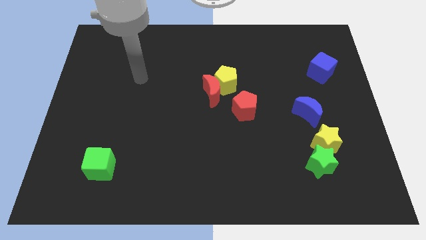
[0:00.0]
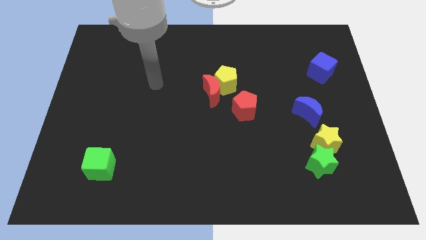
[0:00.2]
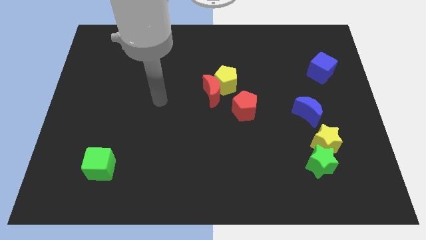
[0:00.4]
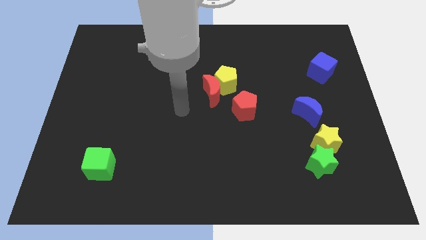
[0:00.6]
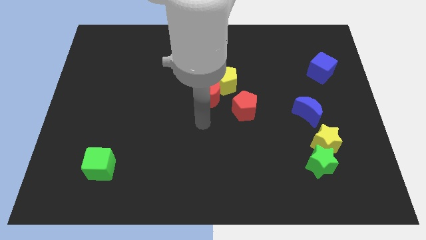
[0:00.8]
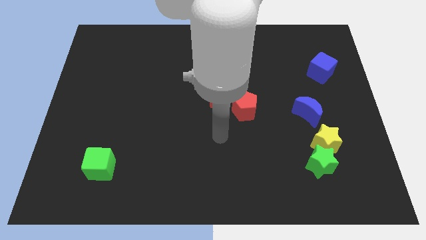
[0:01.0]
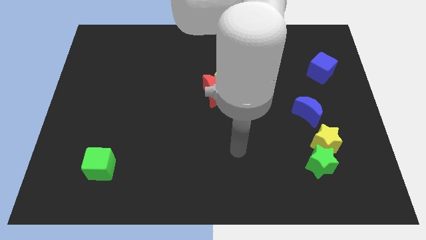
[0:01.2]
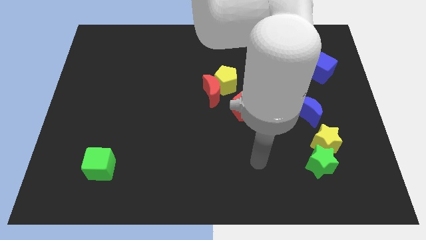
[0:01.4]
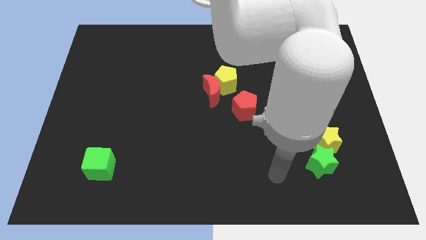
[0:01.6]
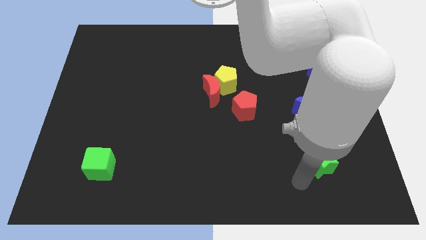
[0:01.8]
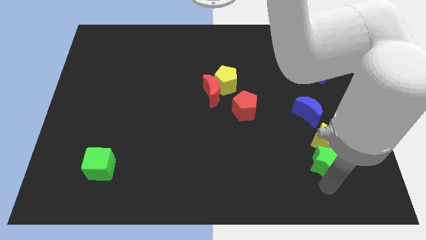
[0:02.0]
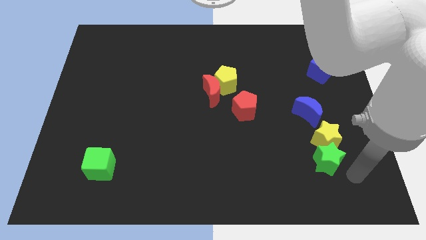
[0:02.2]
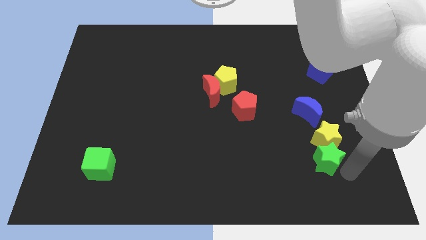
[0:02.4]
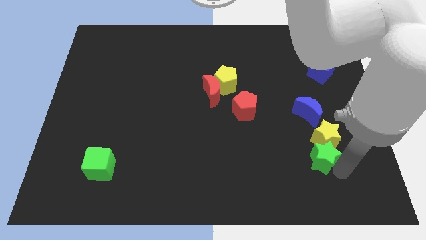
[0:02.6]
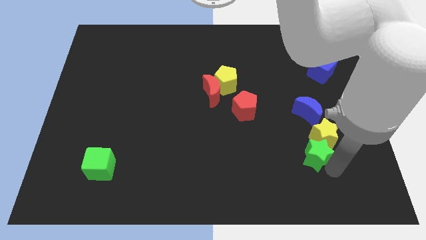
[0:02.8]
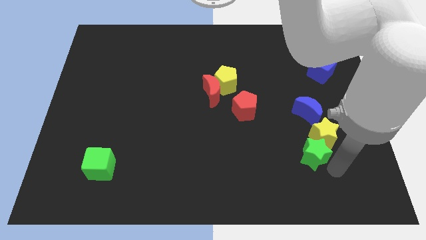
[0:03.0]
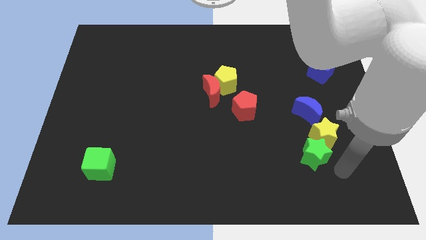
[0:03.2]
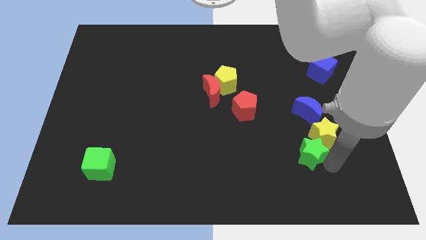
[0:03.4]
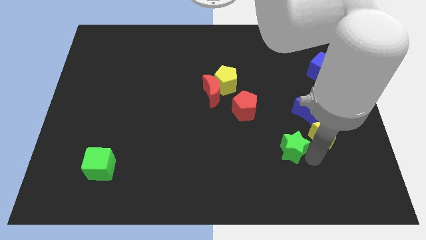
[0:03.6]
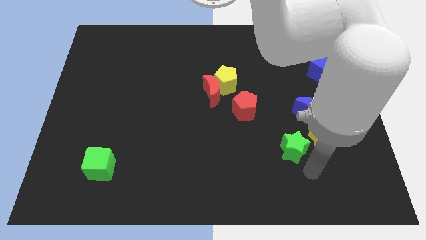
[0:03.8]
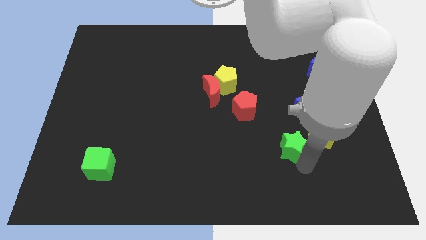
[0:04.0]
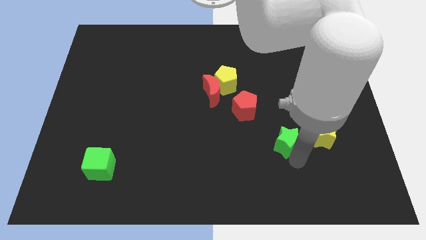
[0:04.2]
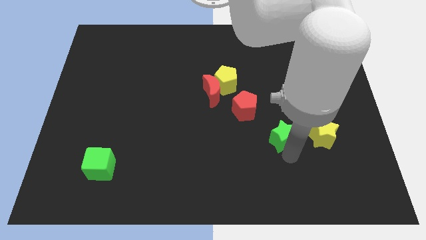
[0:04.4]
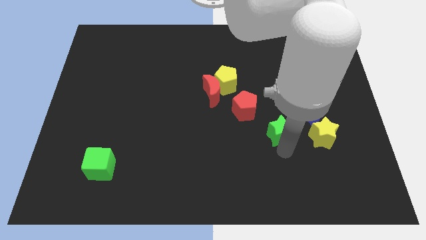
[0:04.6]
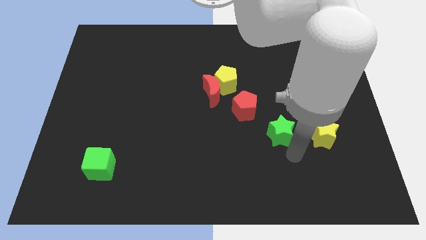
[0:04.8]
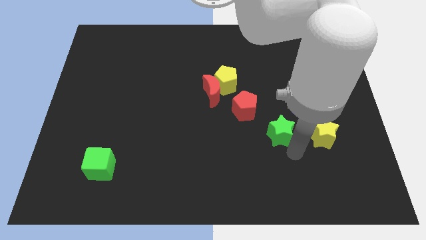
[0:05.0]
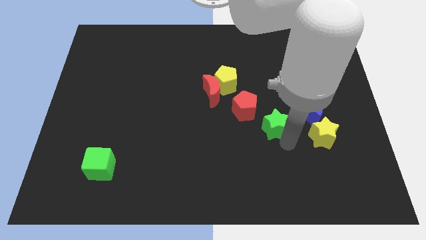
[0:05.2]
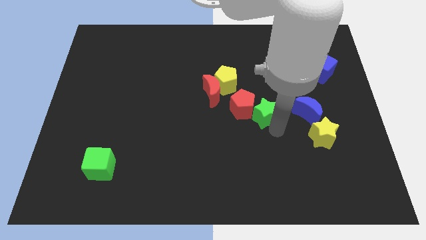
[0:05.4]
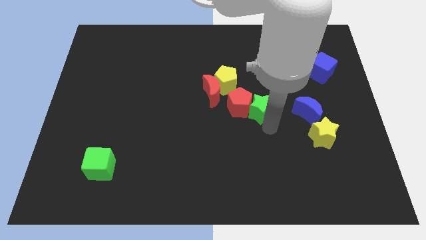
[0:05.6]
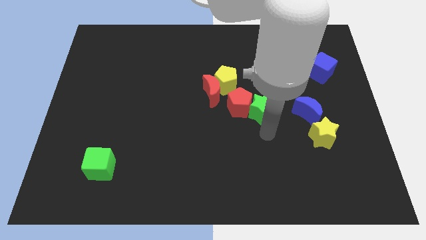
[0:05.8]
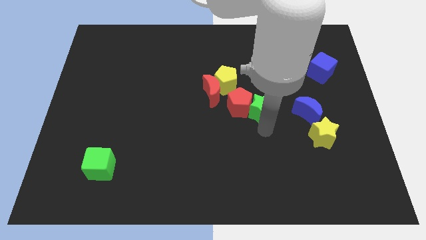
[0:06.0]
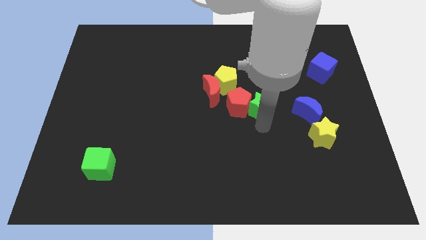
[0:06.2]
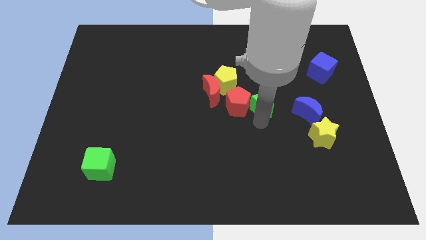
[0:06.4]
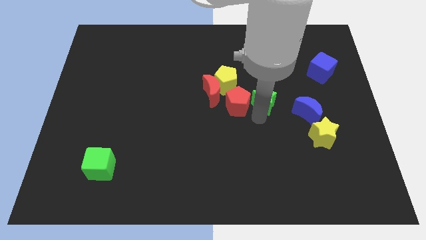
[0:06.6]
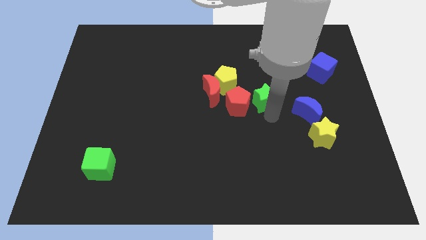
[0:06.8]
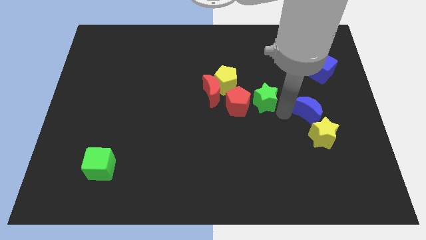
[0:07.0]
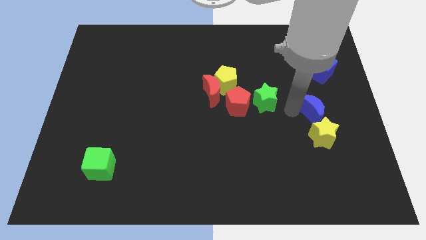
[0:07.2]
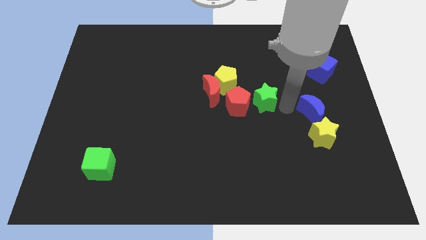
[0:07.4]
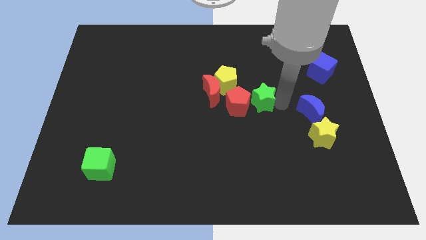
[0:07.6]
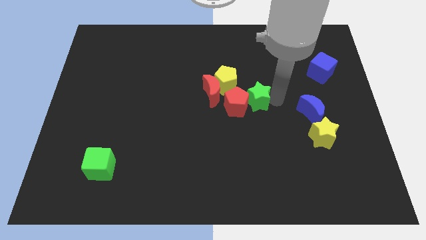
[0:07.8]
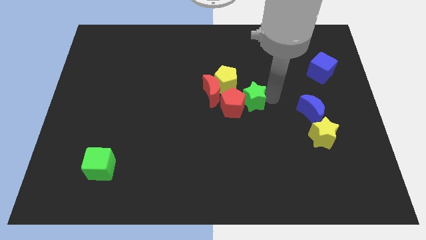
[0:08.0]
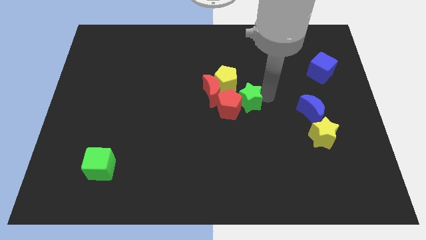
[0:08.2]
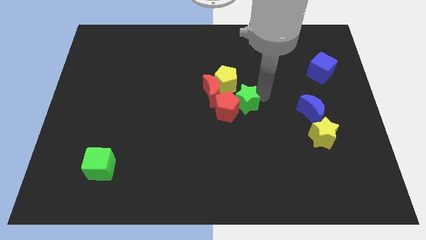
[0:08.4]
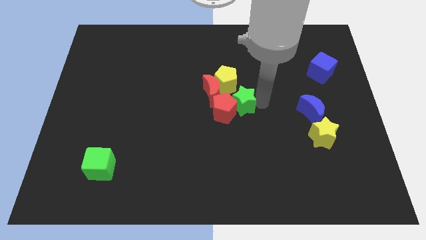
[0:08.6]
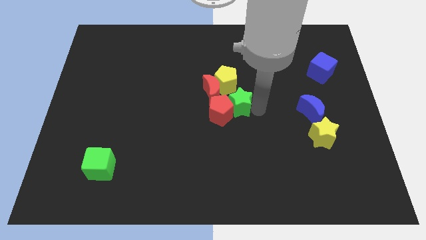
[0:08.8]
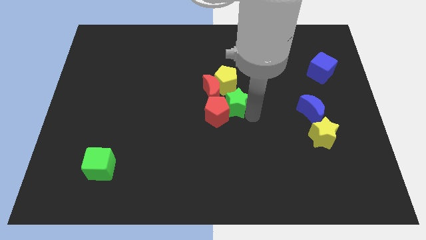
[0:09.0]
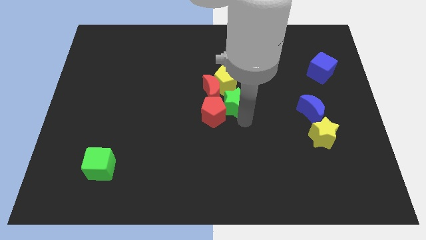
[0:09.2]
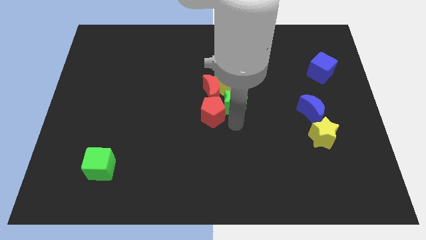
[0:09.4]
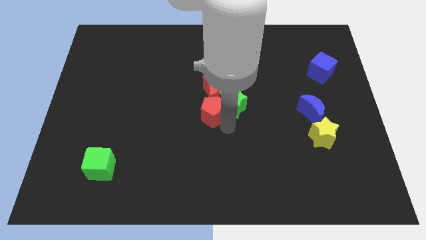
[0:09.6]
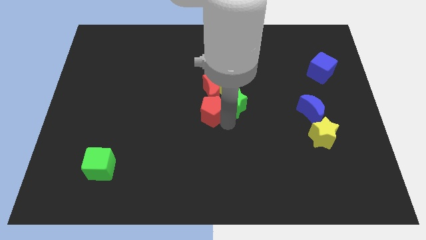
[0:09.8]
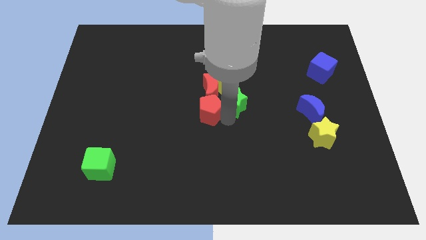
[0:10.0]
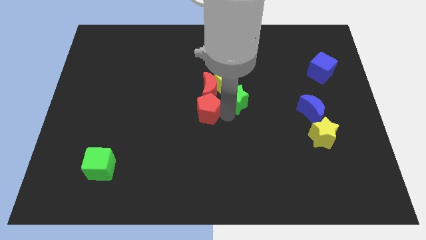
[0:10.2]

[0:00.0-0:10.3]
put the green star towards the yellow pentagon

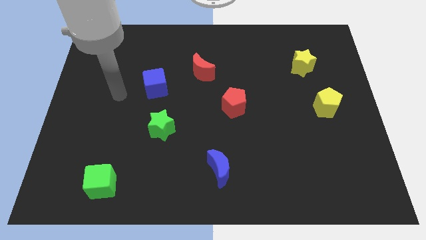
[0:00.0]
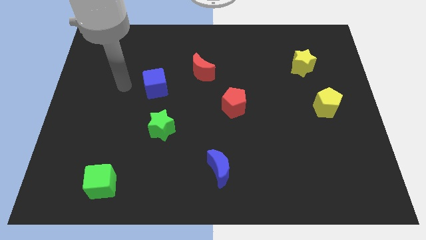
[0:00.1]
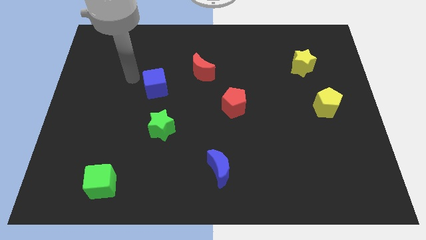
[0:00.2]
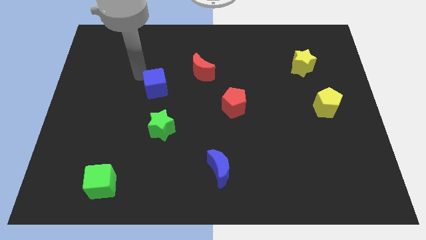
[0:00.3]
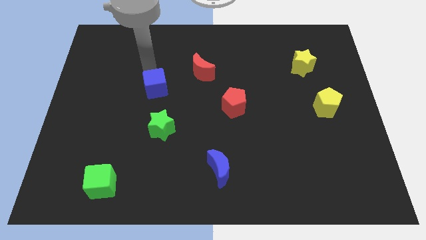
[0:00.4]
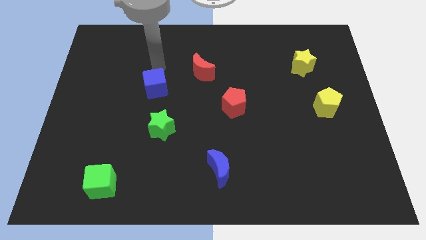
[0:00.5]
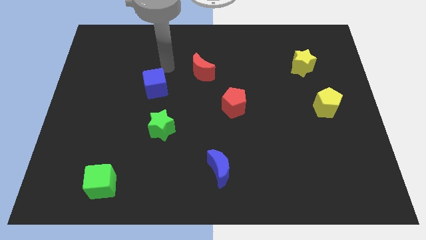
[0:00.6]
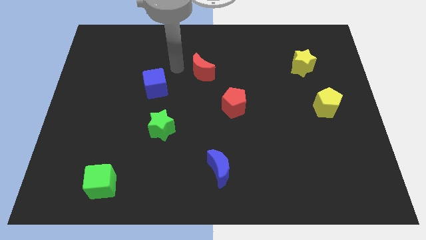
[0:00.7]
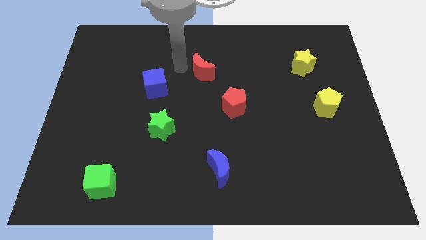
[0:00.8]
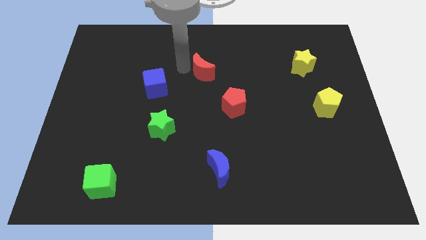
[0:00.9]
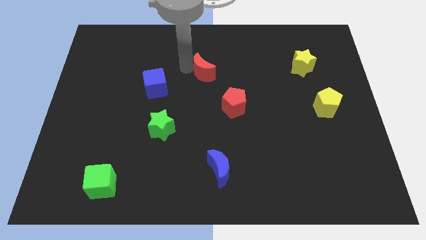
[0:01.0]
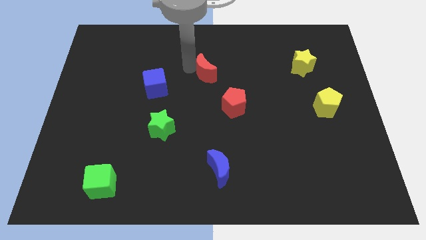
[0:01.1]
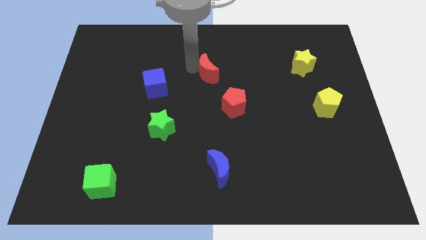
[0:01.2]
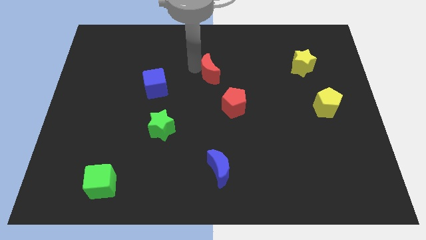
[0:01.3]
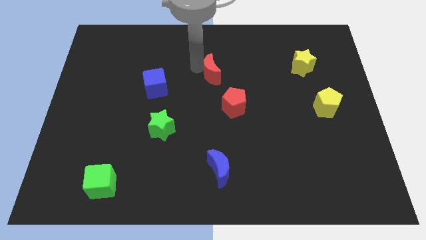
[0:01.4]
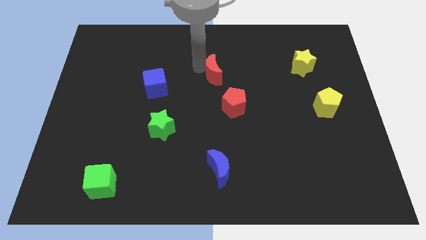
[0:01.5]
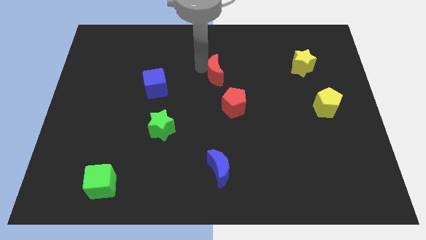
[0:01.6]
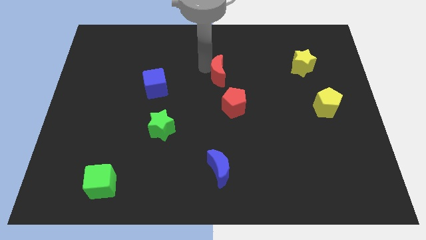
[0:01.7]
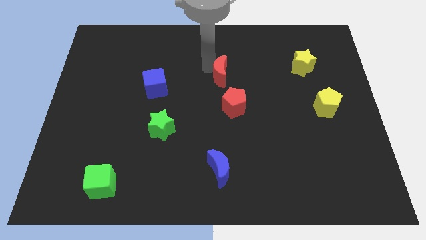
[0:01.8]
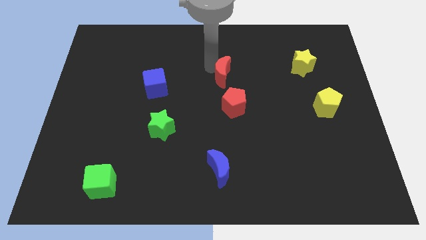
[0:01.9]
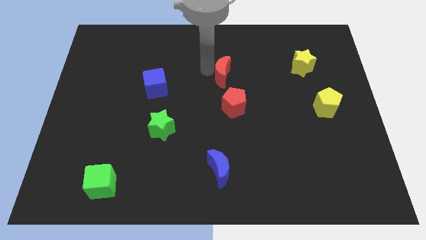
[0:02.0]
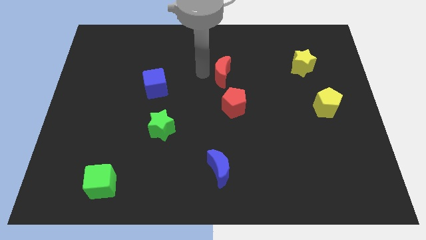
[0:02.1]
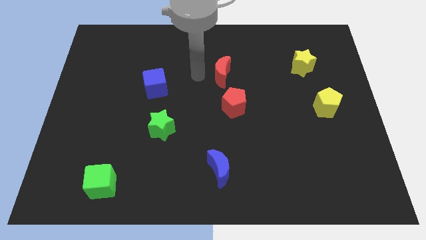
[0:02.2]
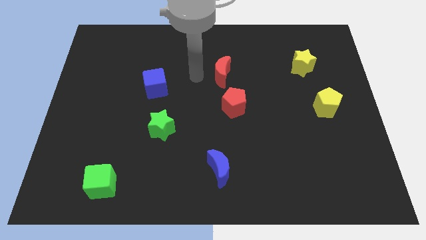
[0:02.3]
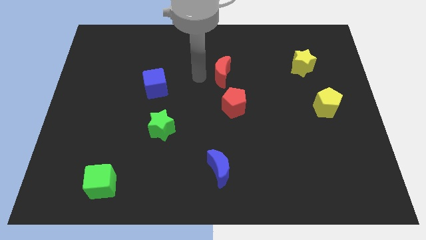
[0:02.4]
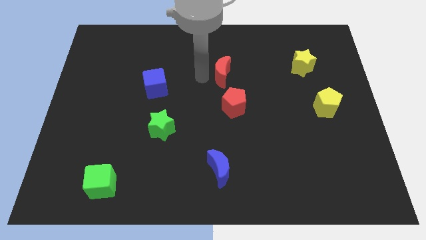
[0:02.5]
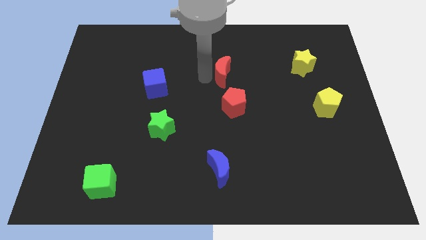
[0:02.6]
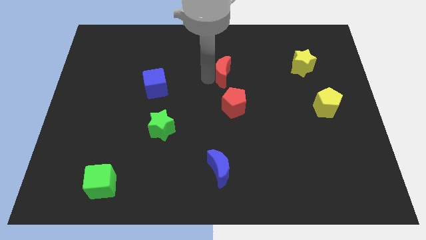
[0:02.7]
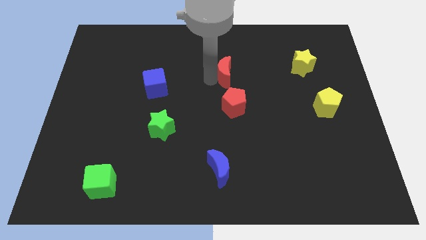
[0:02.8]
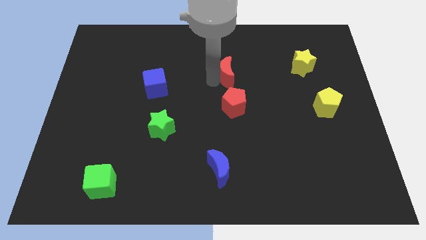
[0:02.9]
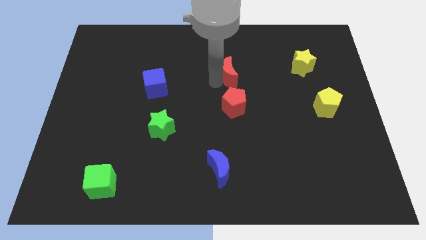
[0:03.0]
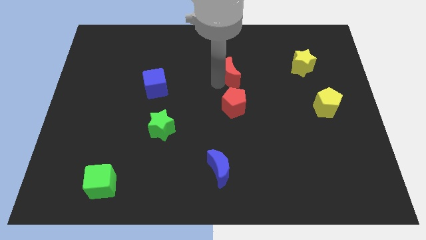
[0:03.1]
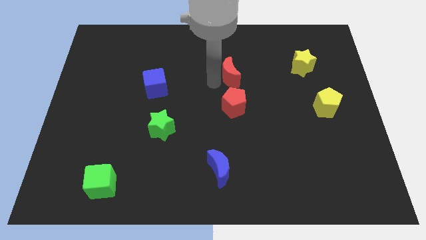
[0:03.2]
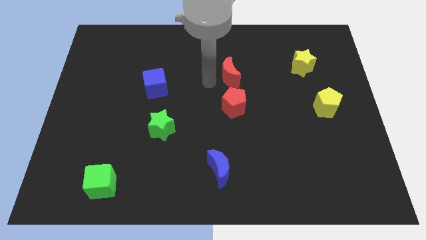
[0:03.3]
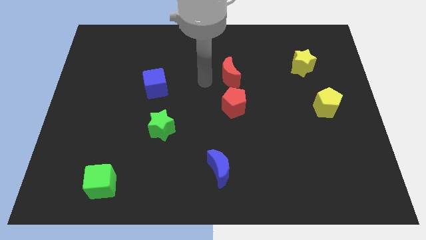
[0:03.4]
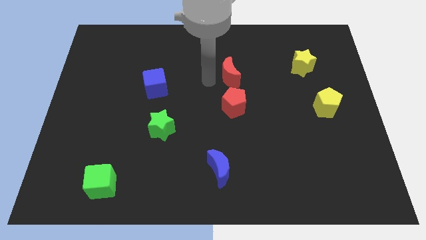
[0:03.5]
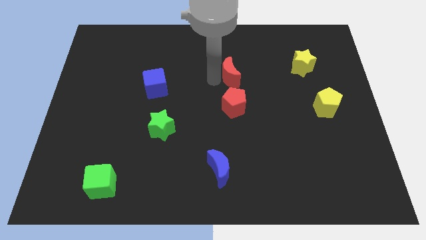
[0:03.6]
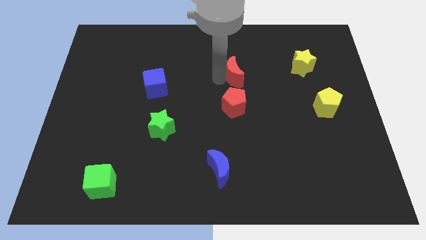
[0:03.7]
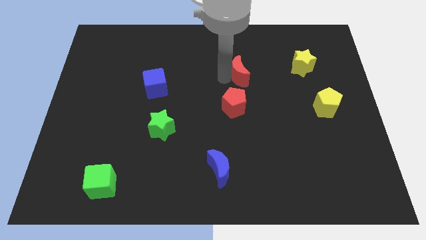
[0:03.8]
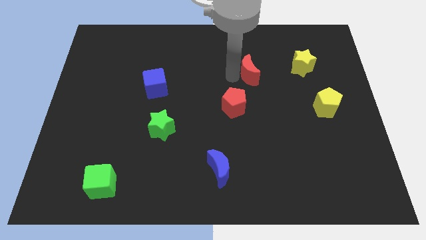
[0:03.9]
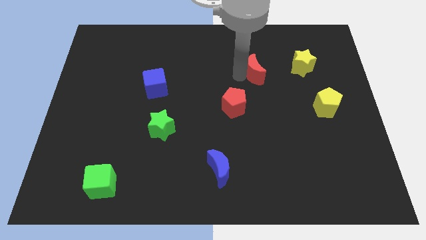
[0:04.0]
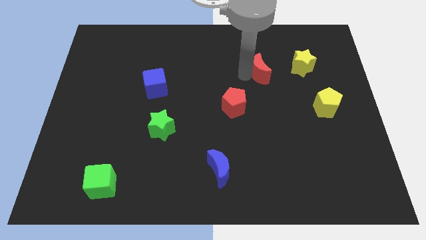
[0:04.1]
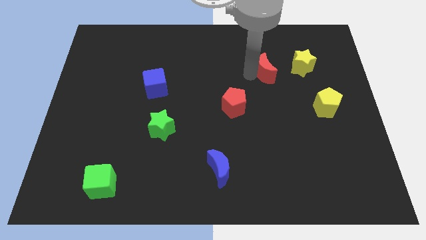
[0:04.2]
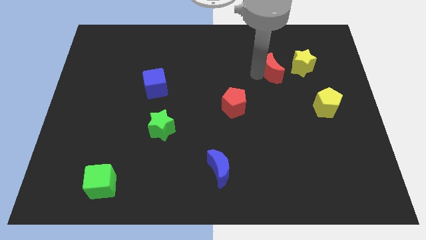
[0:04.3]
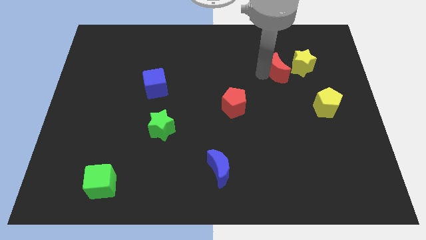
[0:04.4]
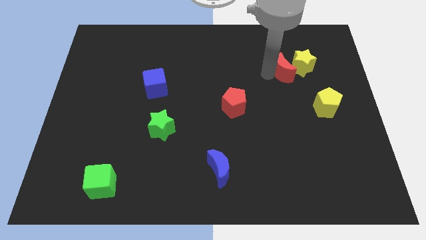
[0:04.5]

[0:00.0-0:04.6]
put the red moon close to the yellow star
